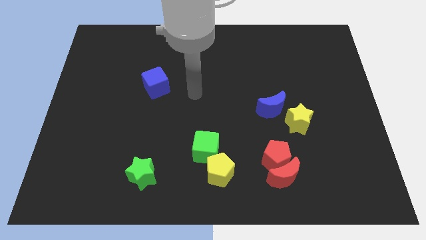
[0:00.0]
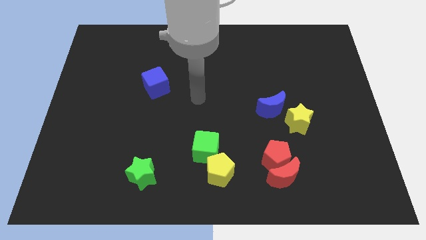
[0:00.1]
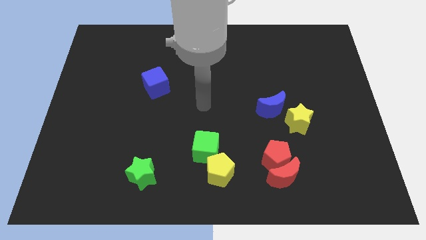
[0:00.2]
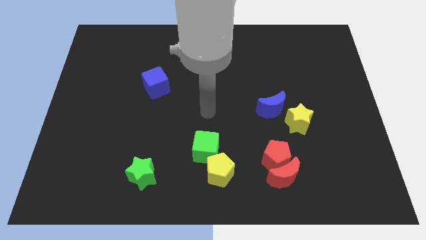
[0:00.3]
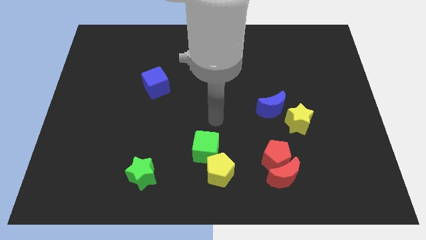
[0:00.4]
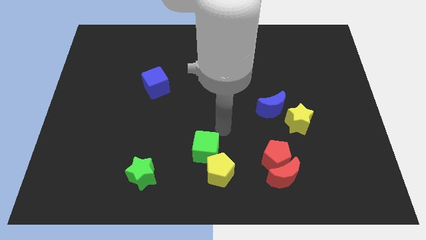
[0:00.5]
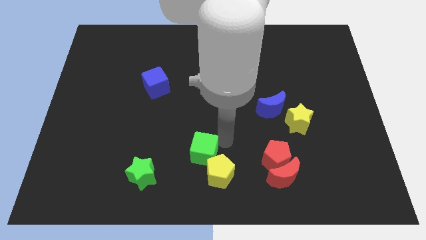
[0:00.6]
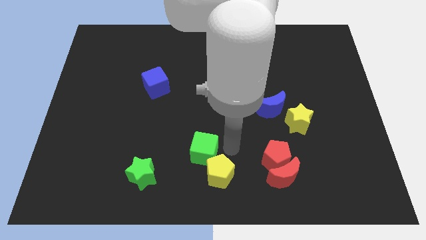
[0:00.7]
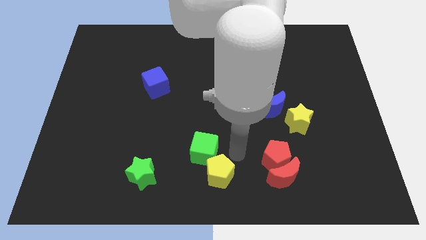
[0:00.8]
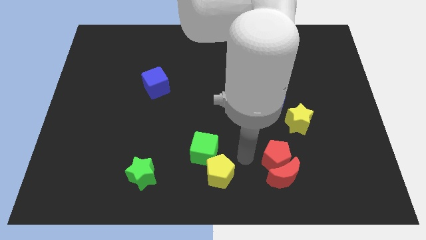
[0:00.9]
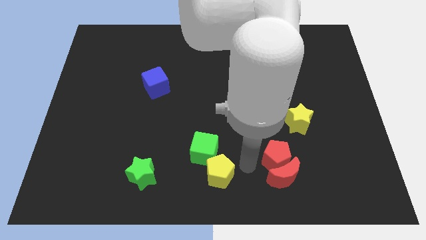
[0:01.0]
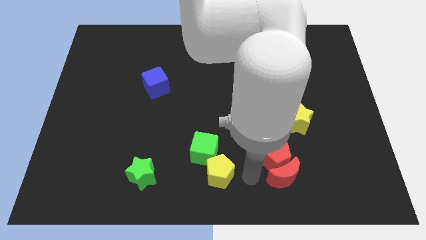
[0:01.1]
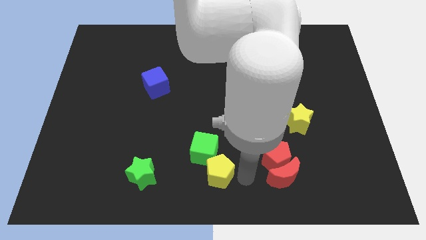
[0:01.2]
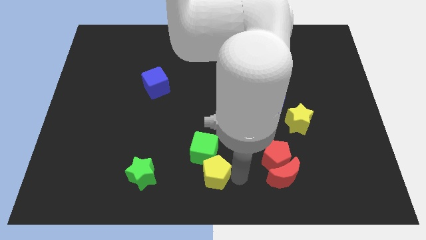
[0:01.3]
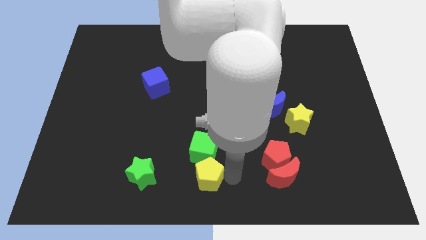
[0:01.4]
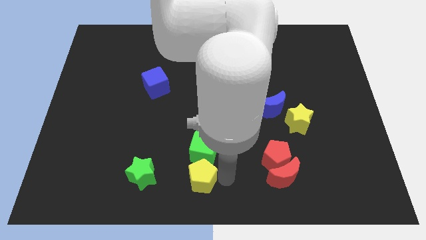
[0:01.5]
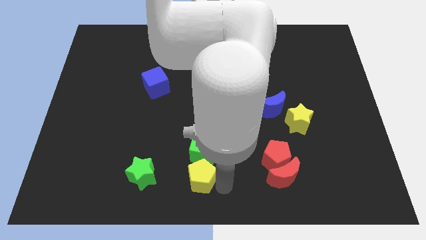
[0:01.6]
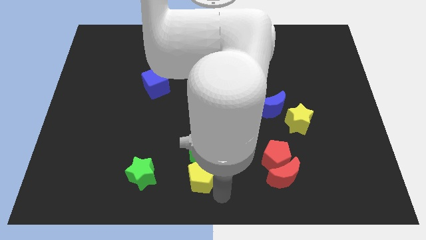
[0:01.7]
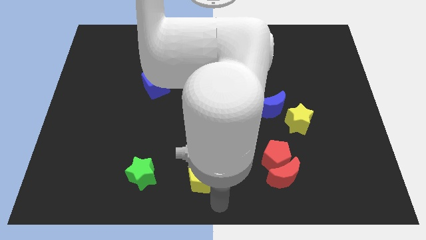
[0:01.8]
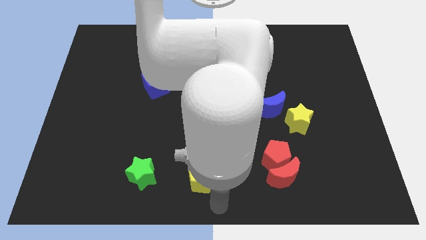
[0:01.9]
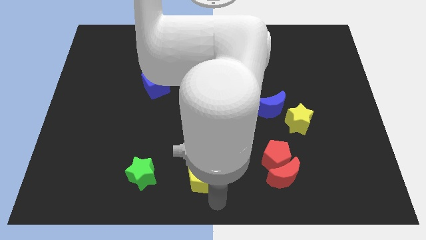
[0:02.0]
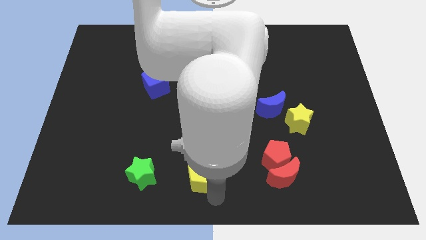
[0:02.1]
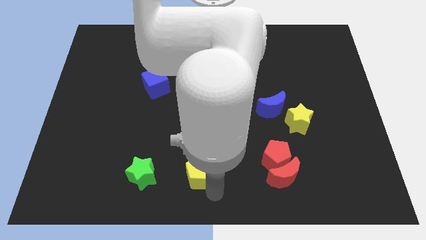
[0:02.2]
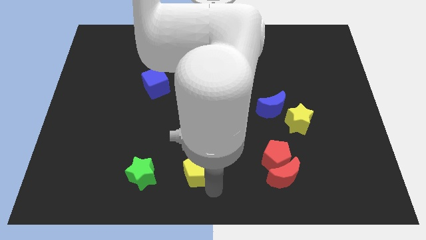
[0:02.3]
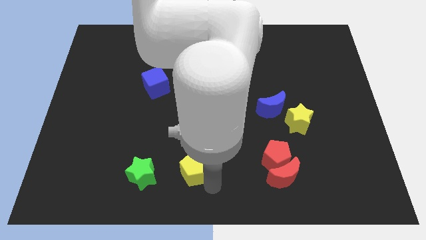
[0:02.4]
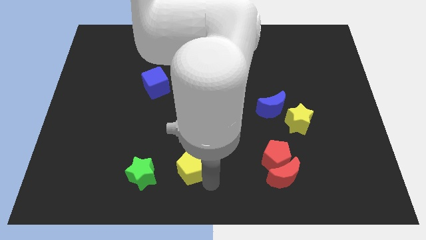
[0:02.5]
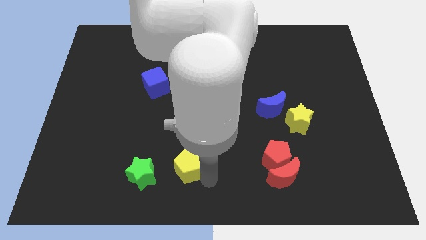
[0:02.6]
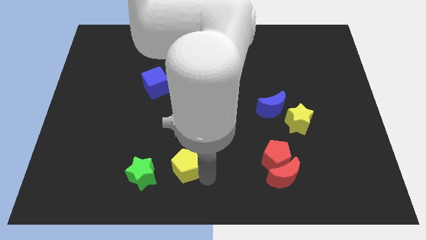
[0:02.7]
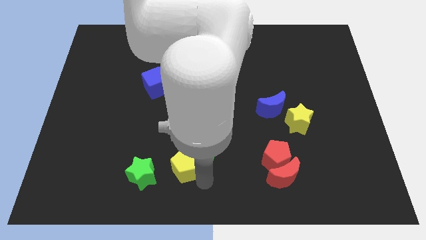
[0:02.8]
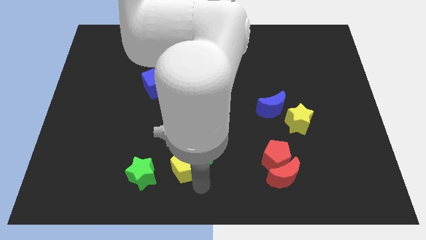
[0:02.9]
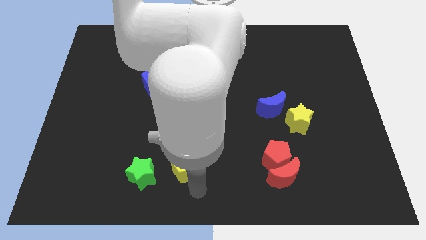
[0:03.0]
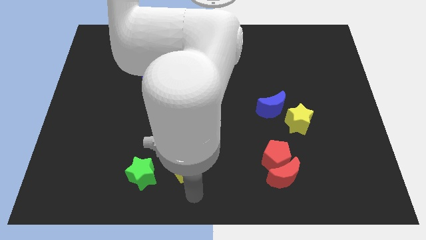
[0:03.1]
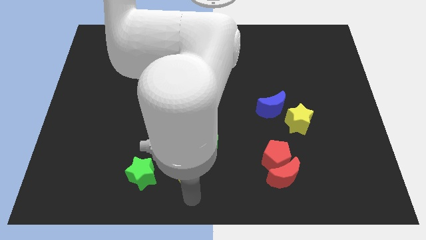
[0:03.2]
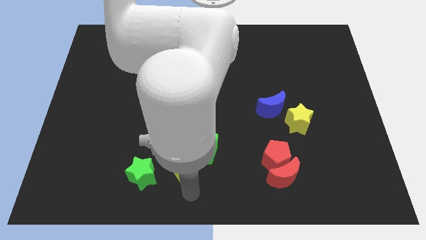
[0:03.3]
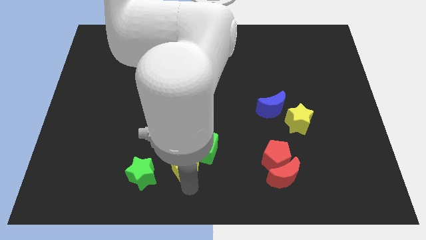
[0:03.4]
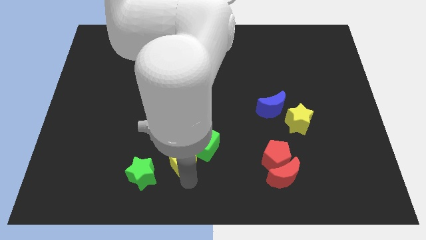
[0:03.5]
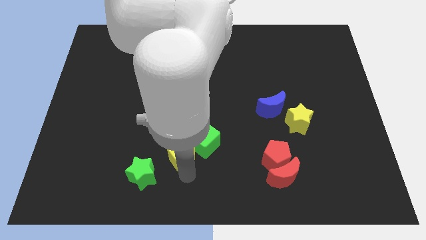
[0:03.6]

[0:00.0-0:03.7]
slightly move the yellow pentagon up and left

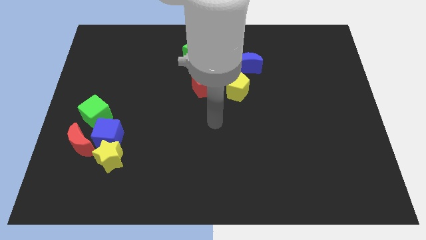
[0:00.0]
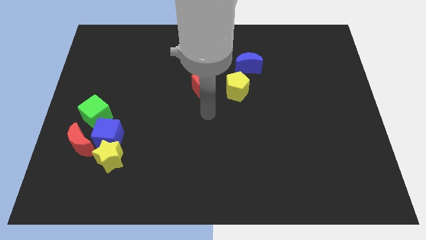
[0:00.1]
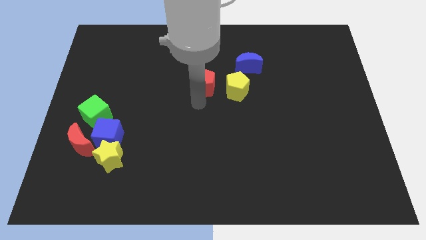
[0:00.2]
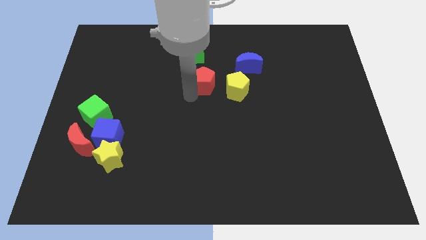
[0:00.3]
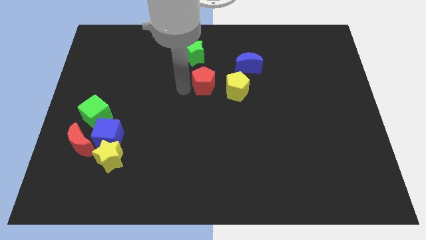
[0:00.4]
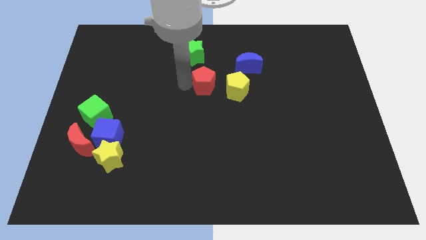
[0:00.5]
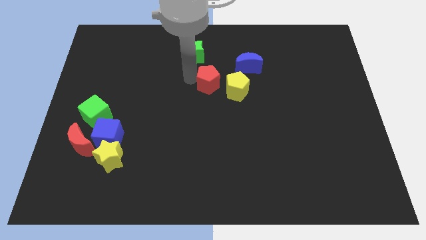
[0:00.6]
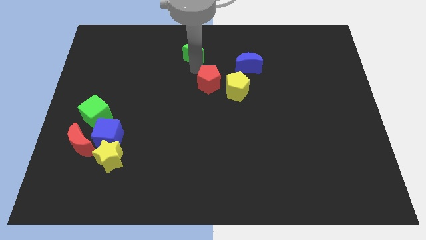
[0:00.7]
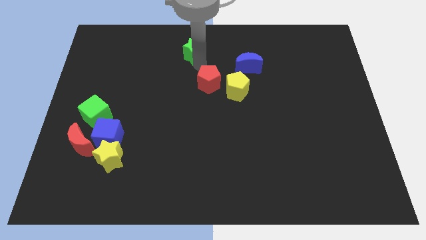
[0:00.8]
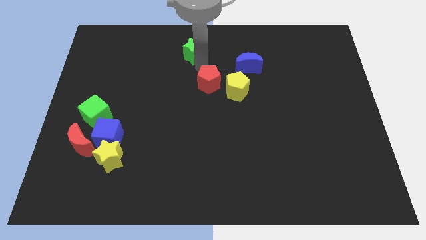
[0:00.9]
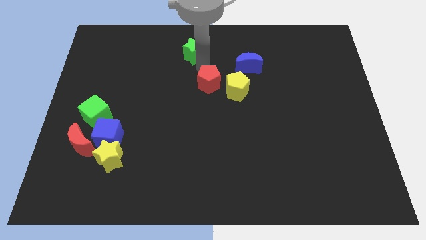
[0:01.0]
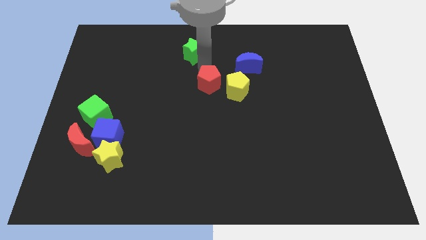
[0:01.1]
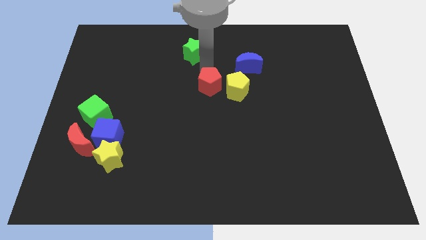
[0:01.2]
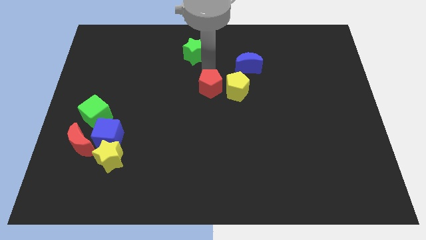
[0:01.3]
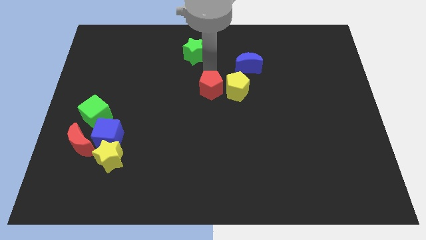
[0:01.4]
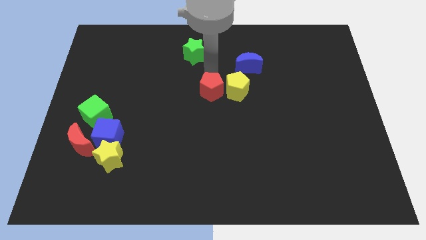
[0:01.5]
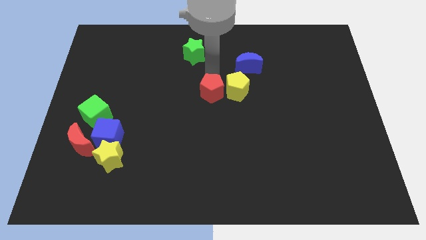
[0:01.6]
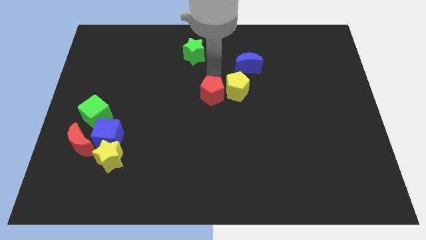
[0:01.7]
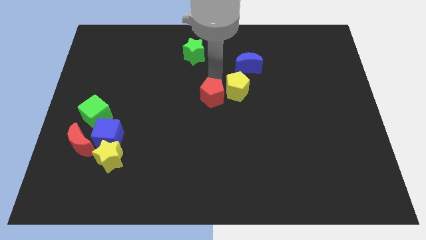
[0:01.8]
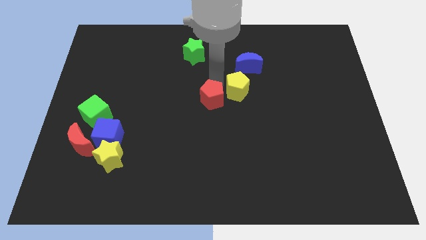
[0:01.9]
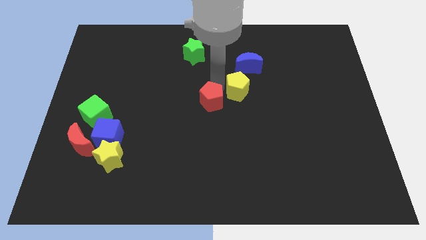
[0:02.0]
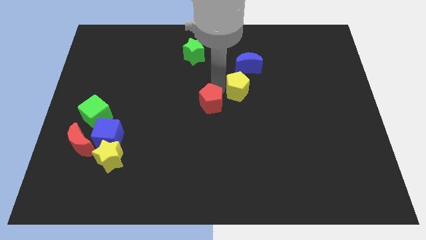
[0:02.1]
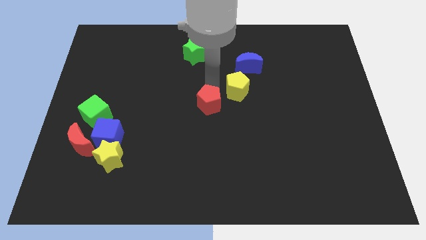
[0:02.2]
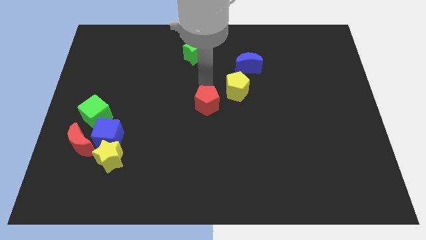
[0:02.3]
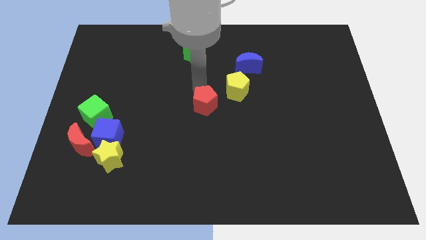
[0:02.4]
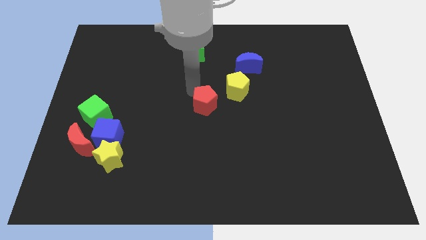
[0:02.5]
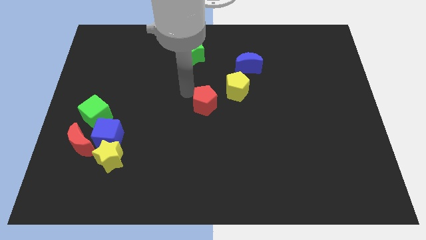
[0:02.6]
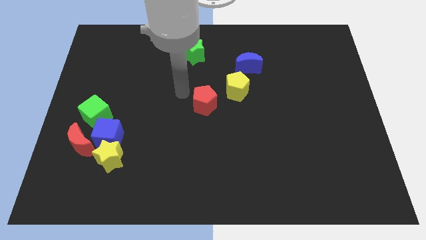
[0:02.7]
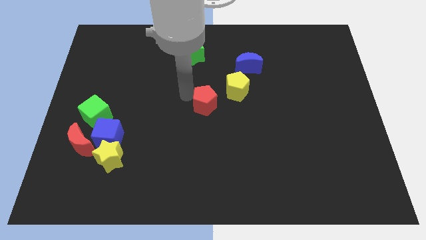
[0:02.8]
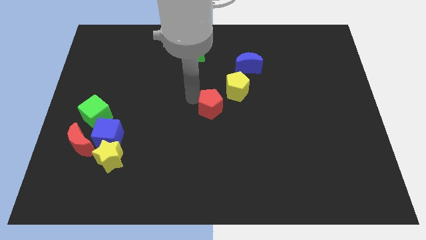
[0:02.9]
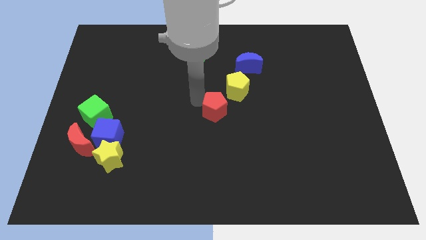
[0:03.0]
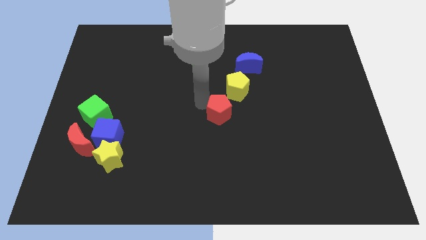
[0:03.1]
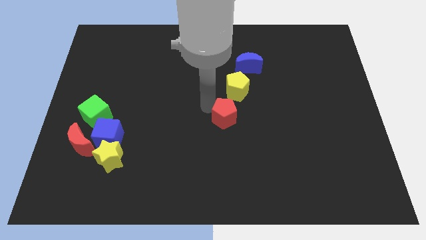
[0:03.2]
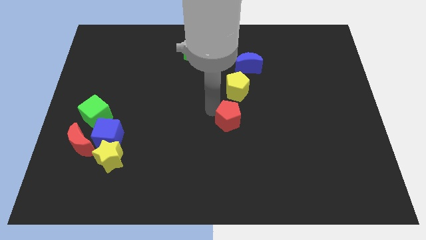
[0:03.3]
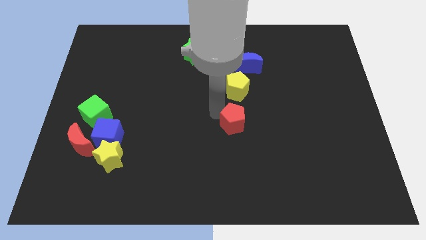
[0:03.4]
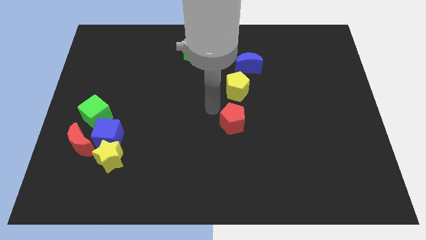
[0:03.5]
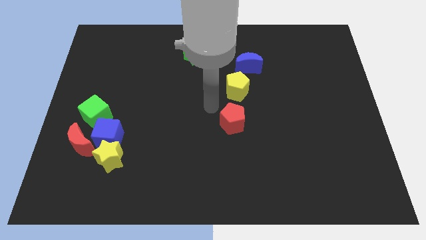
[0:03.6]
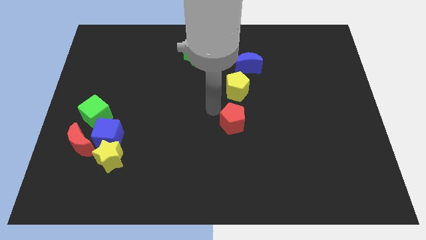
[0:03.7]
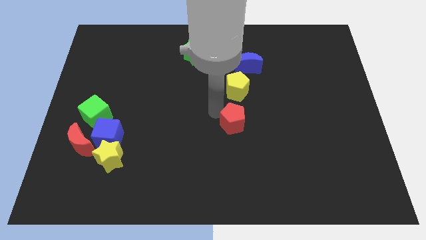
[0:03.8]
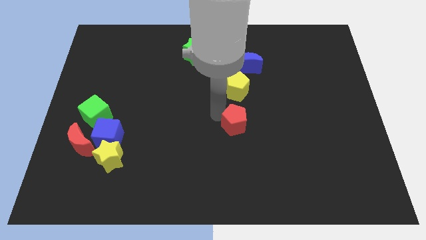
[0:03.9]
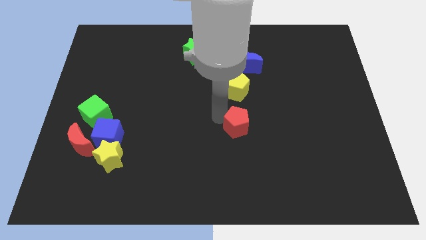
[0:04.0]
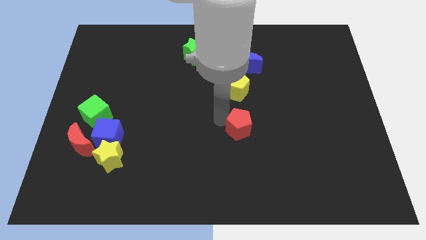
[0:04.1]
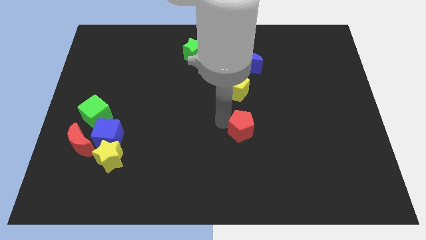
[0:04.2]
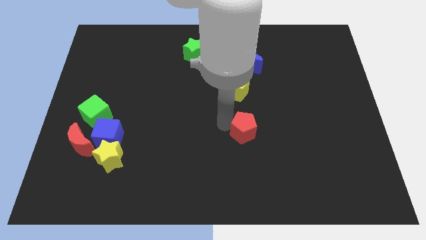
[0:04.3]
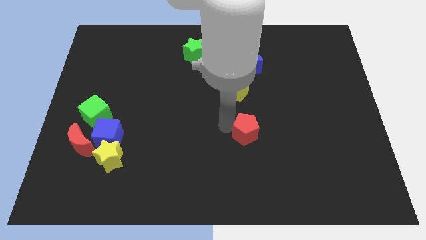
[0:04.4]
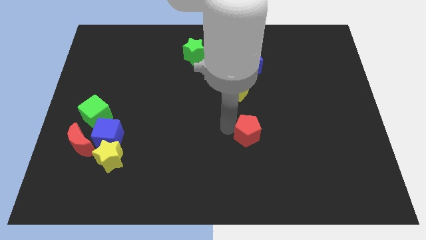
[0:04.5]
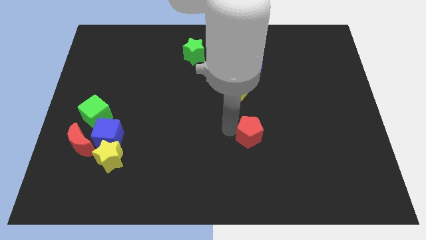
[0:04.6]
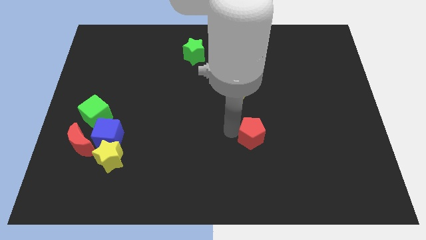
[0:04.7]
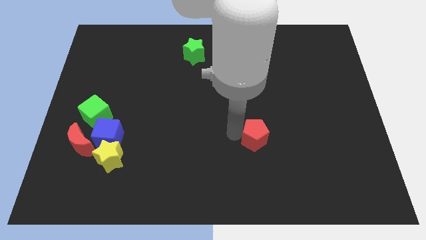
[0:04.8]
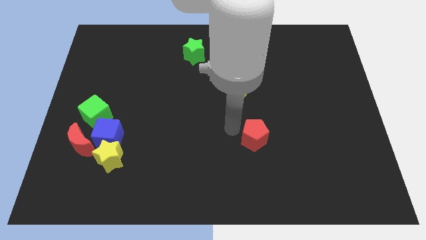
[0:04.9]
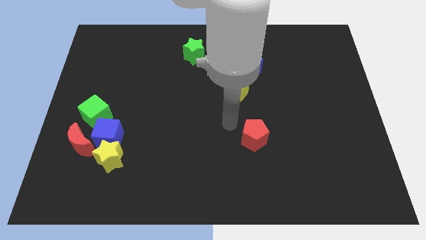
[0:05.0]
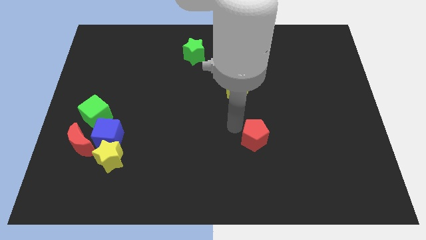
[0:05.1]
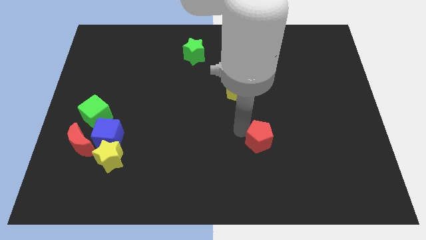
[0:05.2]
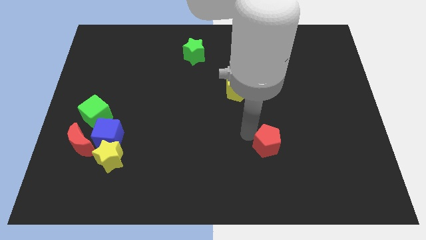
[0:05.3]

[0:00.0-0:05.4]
push the red pentagon downwards and right
